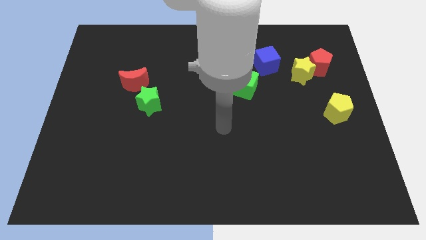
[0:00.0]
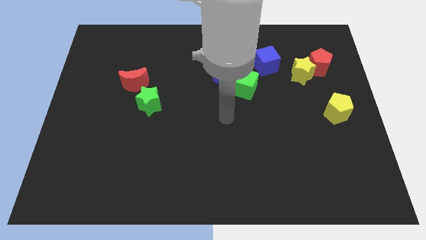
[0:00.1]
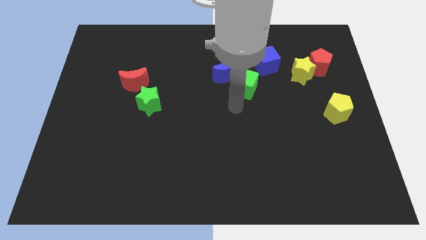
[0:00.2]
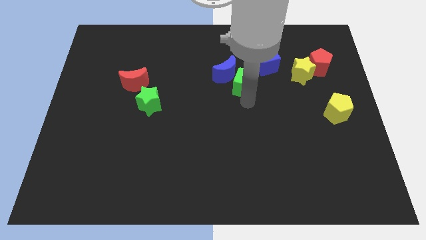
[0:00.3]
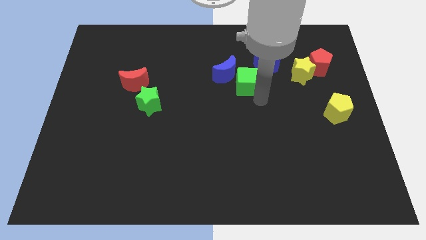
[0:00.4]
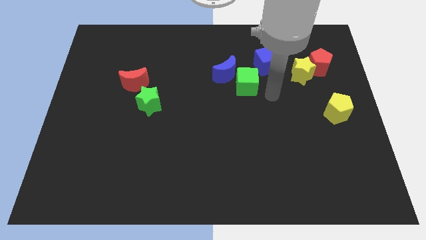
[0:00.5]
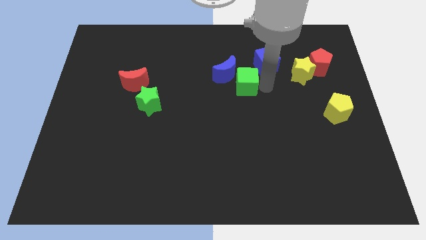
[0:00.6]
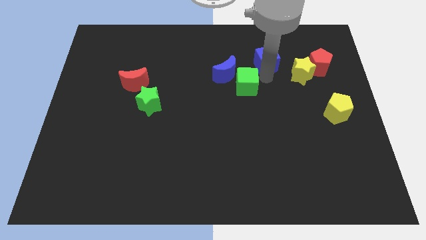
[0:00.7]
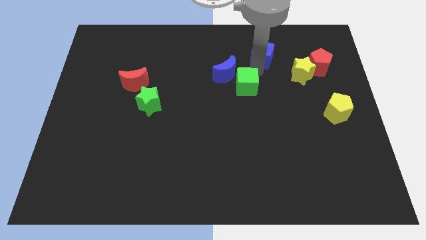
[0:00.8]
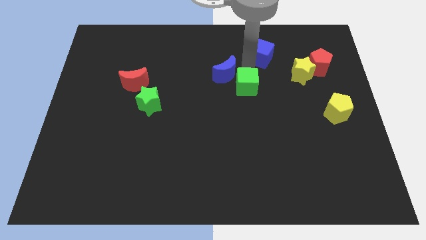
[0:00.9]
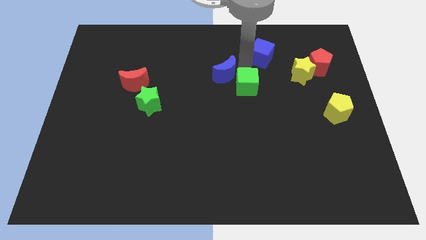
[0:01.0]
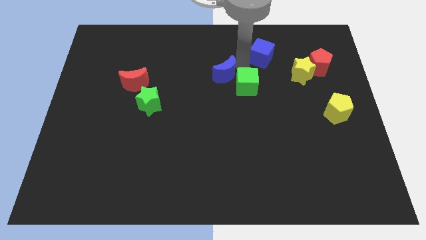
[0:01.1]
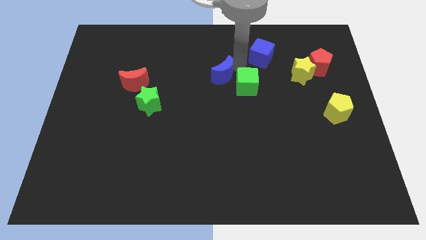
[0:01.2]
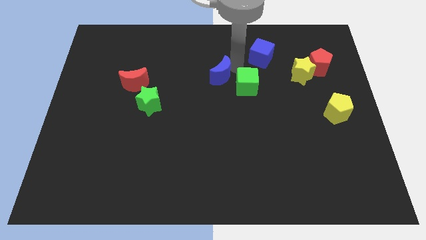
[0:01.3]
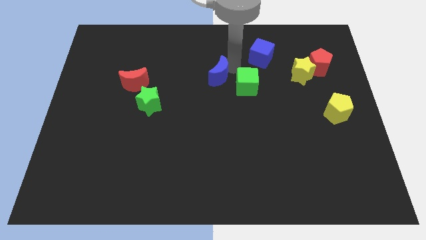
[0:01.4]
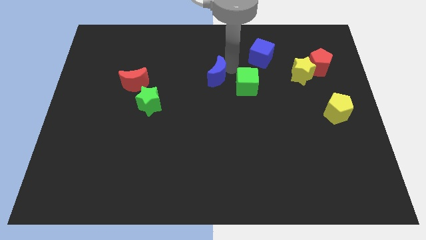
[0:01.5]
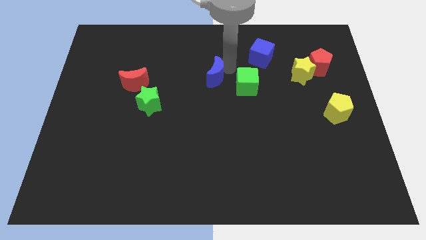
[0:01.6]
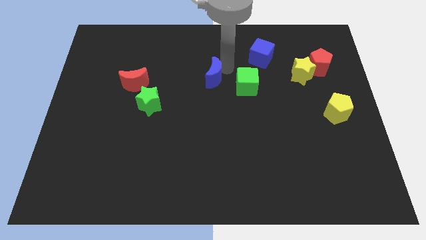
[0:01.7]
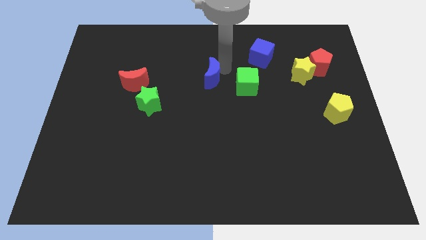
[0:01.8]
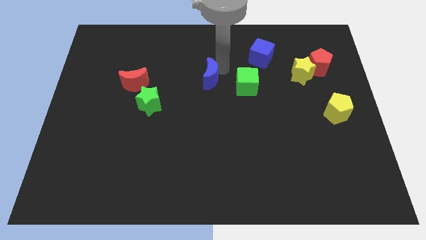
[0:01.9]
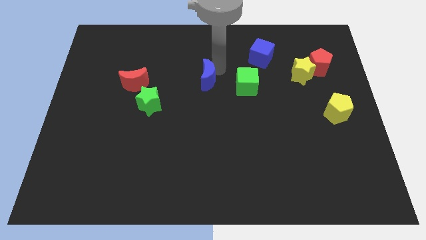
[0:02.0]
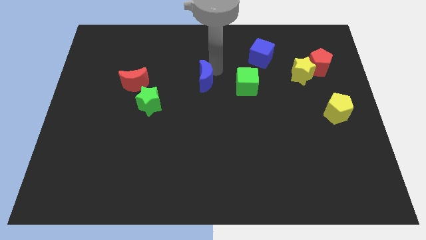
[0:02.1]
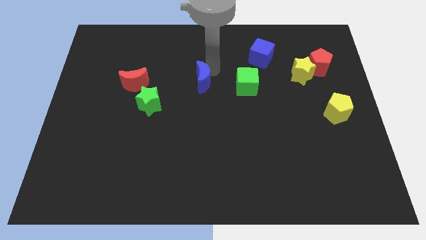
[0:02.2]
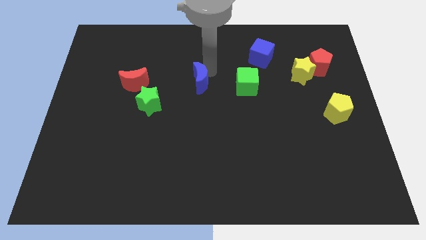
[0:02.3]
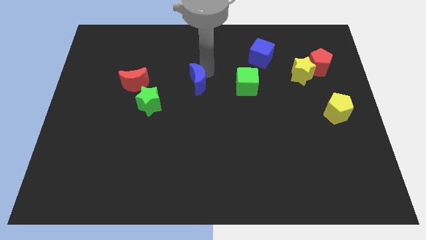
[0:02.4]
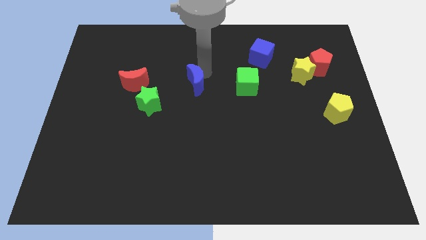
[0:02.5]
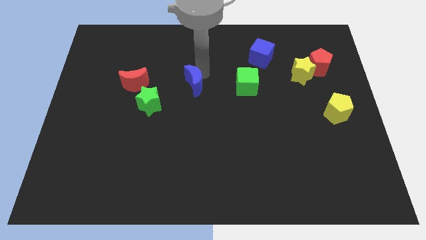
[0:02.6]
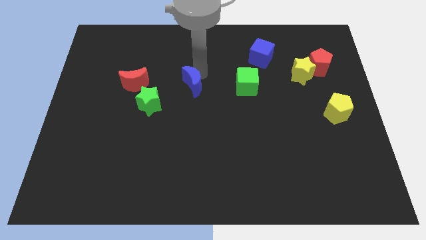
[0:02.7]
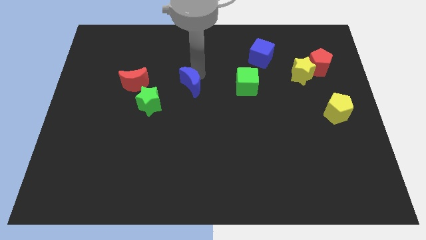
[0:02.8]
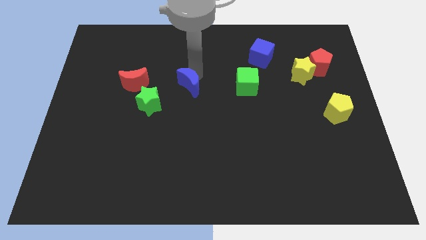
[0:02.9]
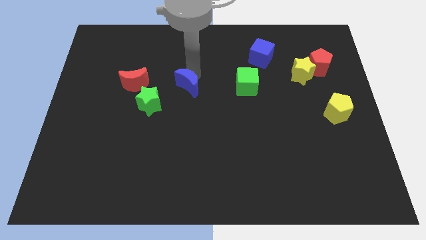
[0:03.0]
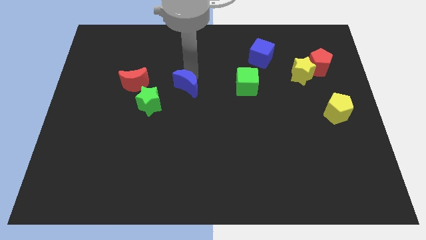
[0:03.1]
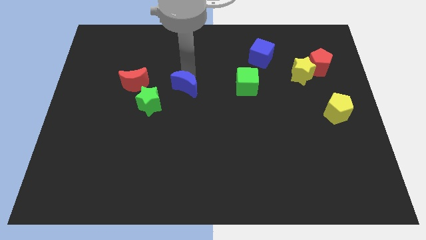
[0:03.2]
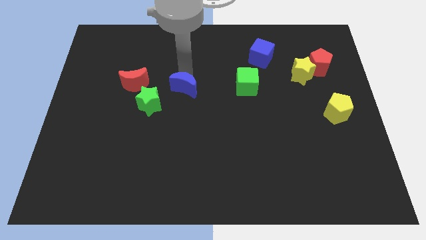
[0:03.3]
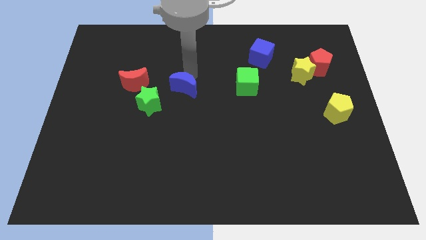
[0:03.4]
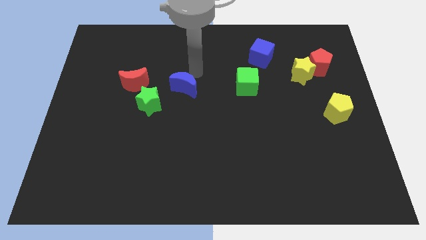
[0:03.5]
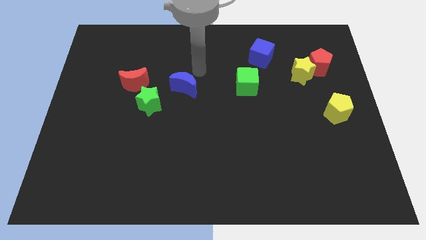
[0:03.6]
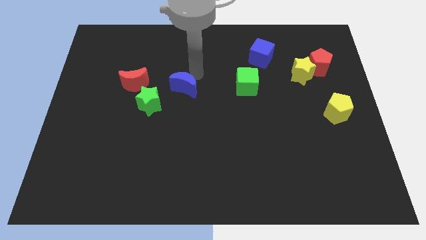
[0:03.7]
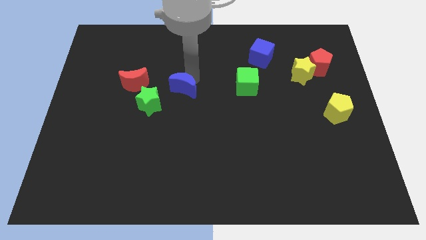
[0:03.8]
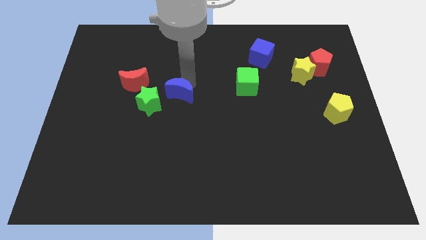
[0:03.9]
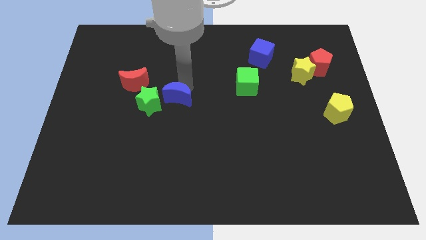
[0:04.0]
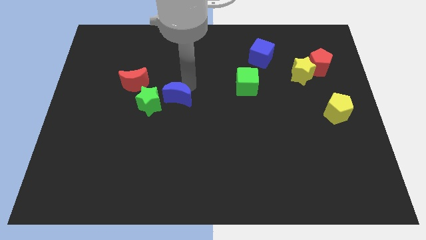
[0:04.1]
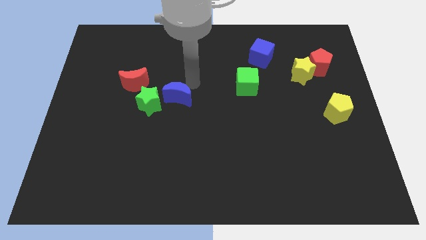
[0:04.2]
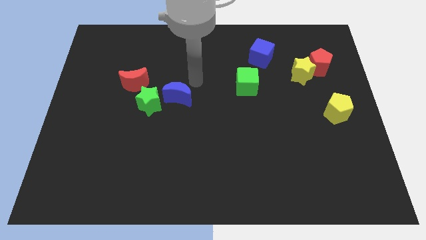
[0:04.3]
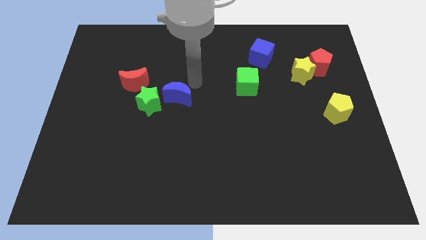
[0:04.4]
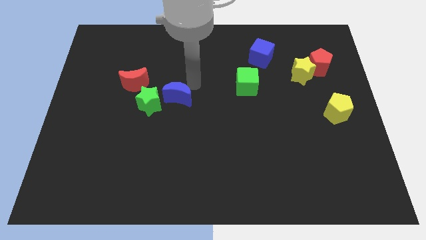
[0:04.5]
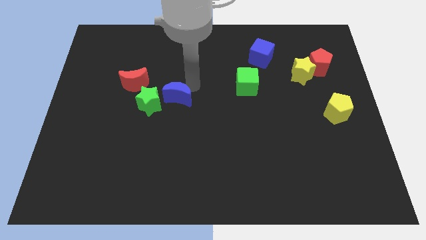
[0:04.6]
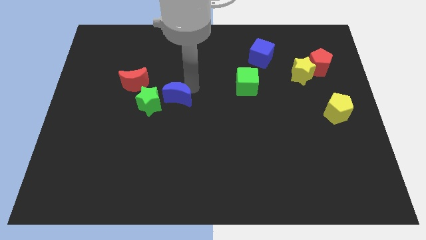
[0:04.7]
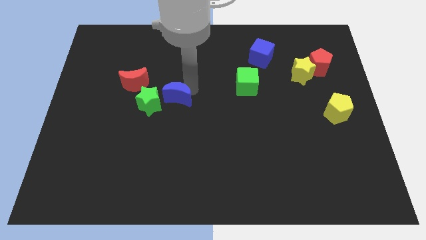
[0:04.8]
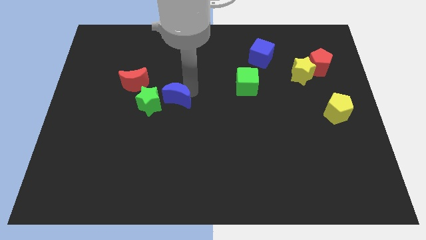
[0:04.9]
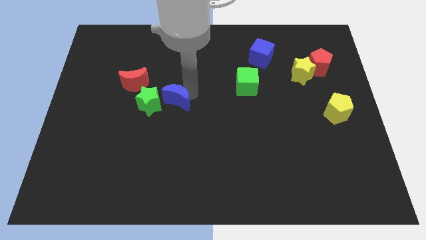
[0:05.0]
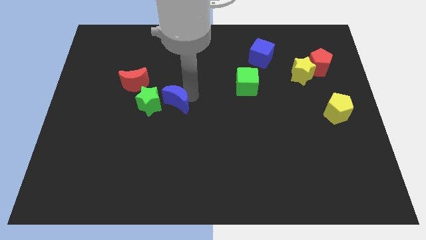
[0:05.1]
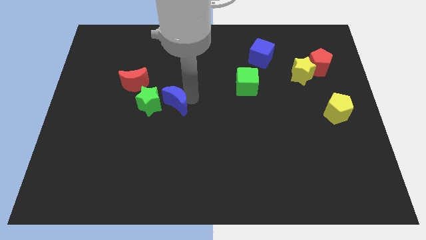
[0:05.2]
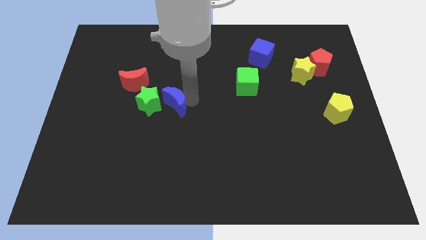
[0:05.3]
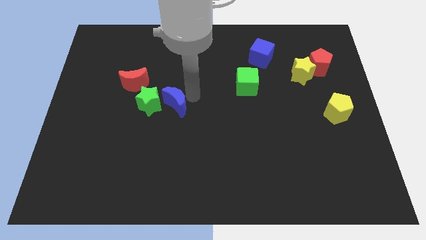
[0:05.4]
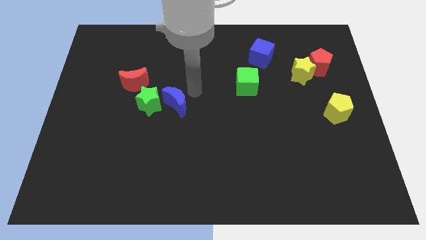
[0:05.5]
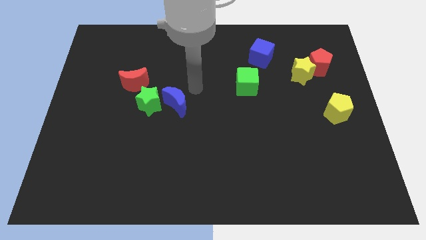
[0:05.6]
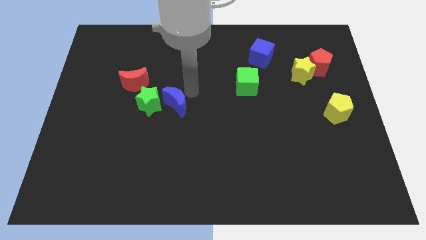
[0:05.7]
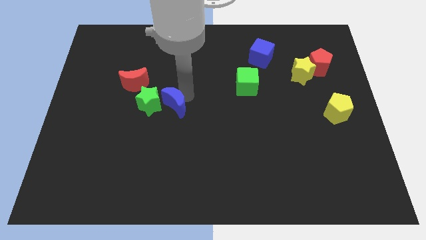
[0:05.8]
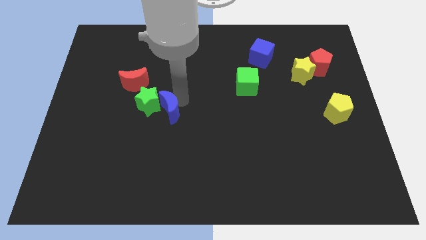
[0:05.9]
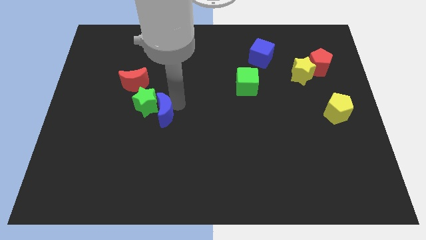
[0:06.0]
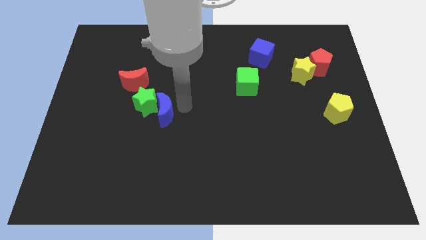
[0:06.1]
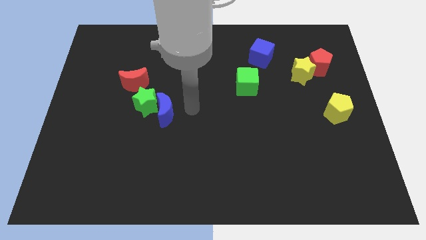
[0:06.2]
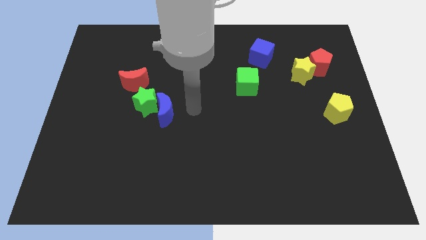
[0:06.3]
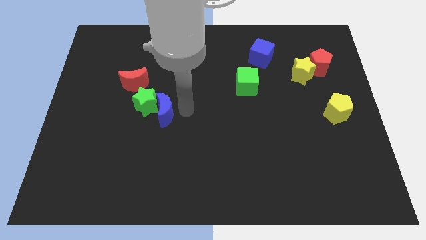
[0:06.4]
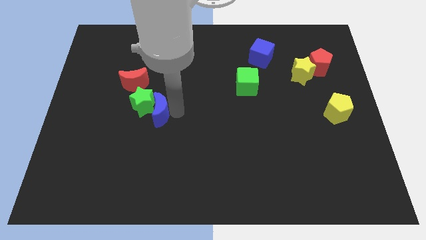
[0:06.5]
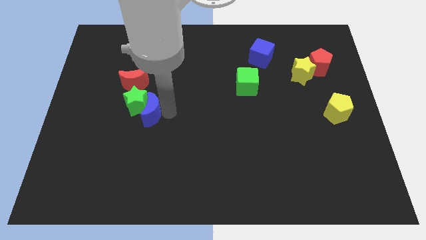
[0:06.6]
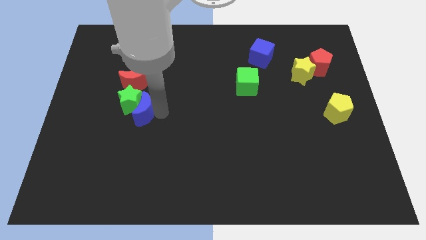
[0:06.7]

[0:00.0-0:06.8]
put the blue moon below the red moon
